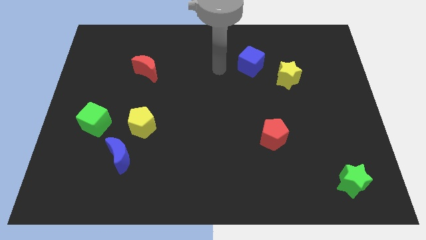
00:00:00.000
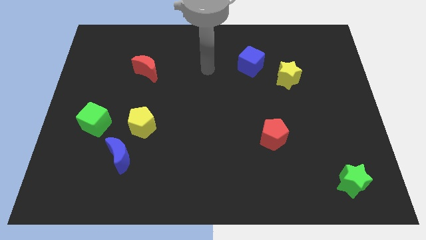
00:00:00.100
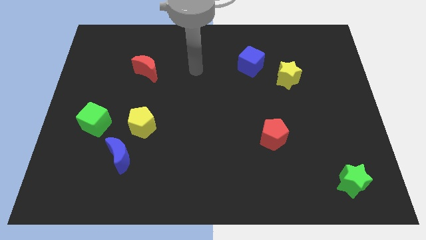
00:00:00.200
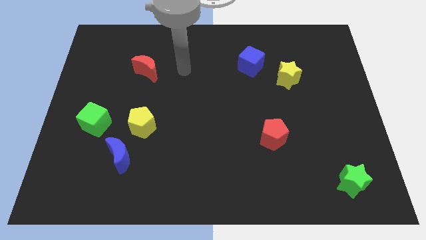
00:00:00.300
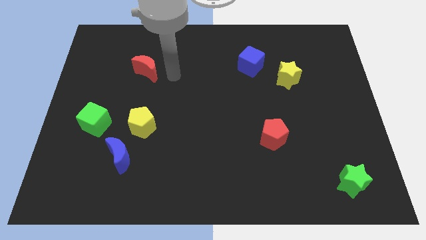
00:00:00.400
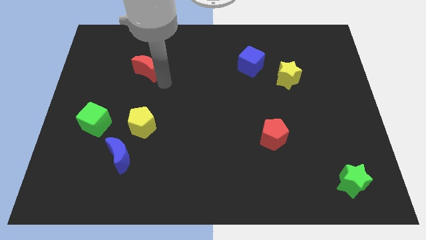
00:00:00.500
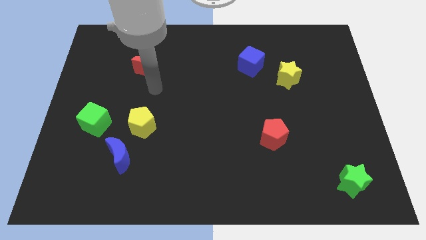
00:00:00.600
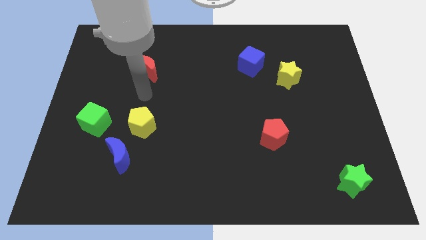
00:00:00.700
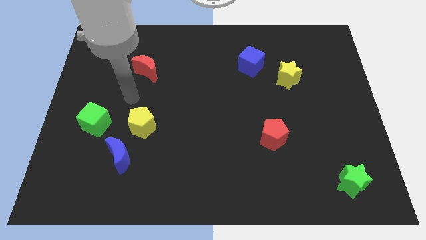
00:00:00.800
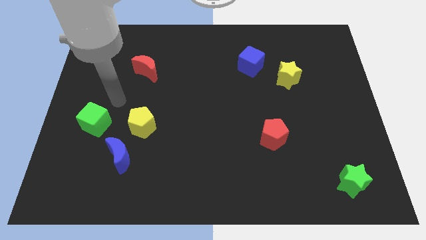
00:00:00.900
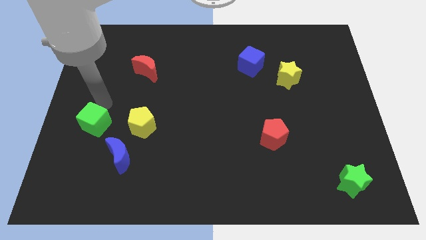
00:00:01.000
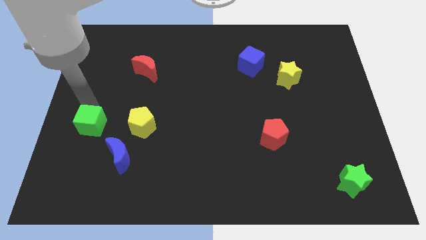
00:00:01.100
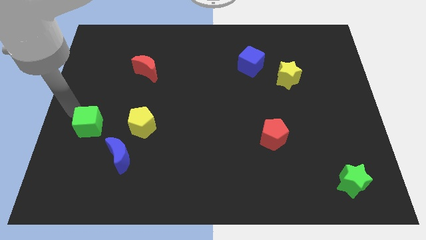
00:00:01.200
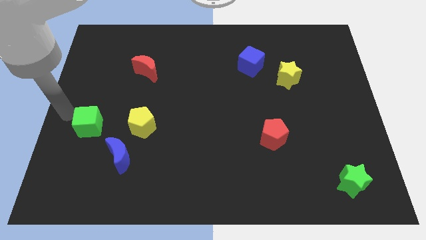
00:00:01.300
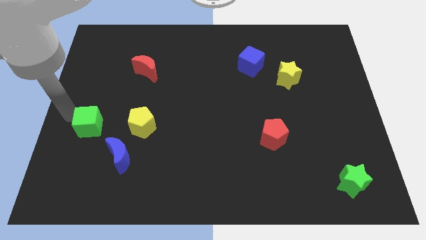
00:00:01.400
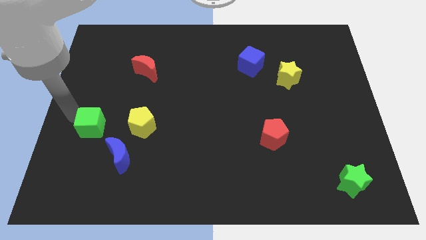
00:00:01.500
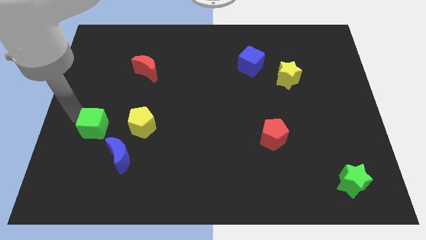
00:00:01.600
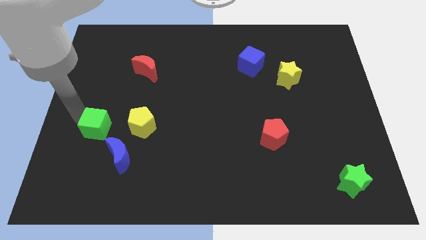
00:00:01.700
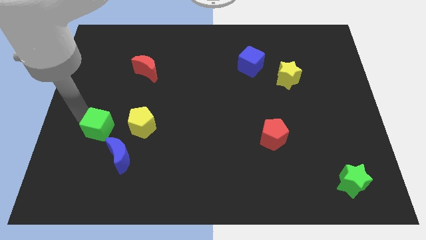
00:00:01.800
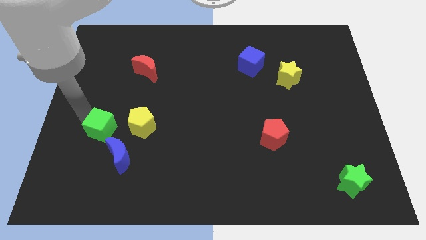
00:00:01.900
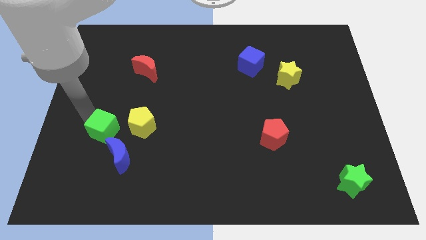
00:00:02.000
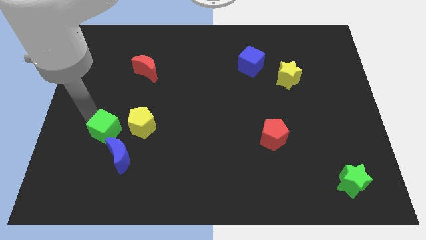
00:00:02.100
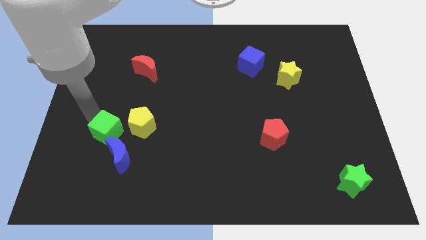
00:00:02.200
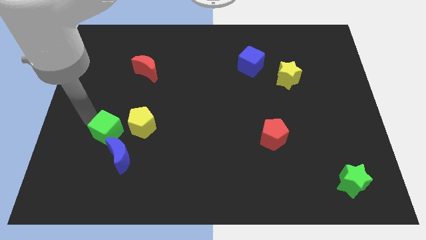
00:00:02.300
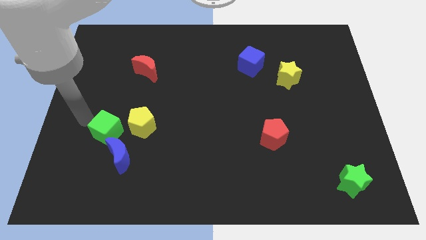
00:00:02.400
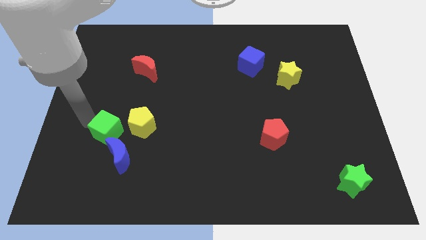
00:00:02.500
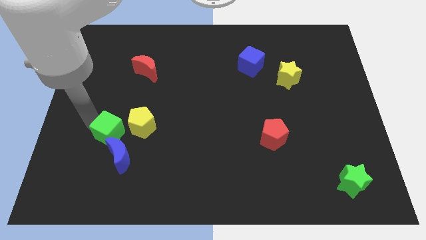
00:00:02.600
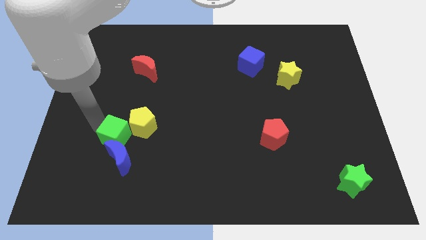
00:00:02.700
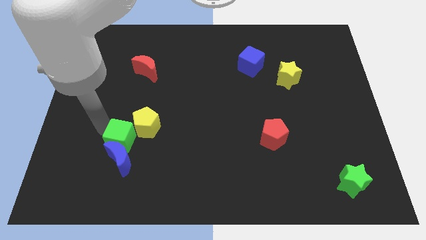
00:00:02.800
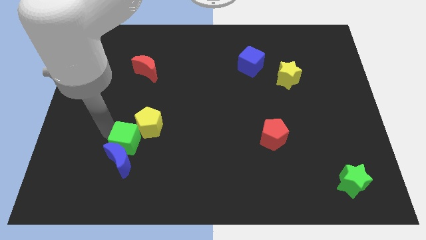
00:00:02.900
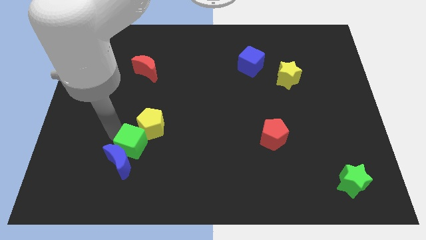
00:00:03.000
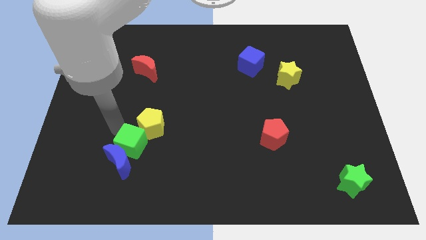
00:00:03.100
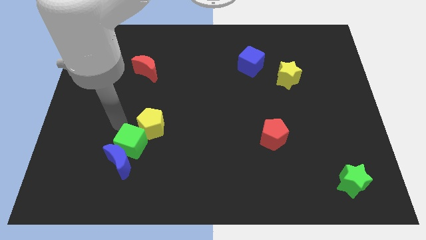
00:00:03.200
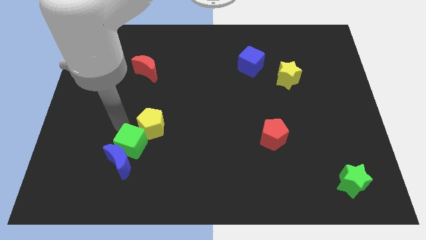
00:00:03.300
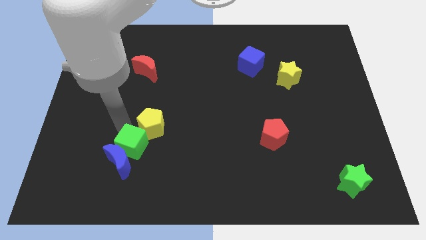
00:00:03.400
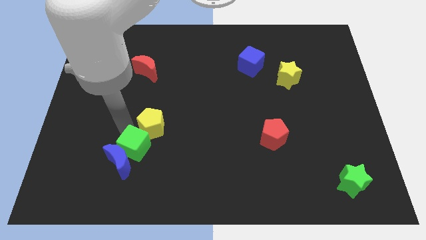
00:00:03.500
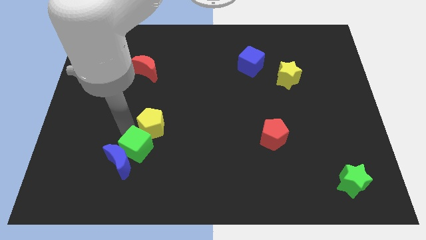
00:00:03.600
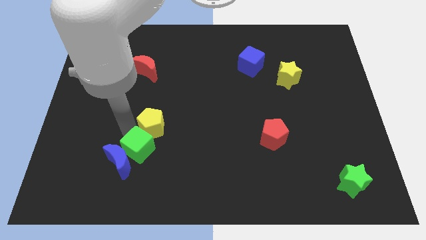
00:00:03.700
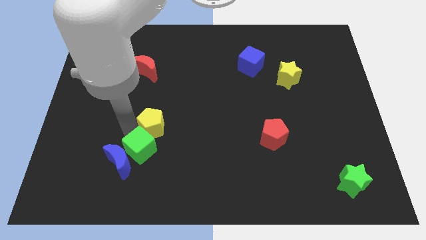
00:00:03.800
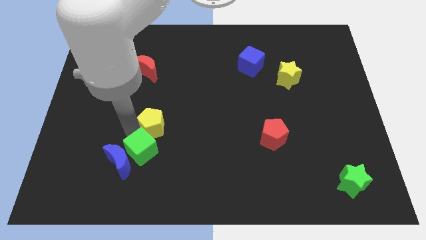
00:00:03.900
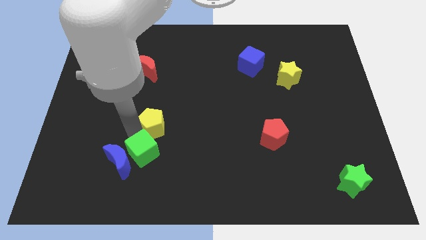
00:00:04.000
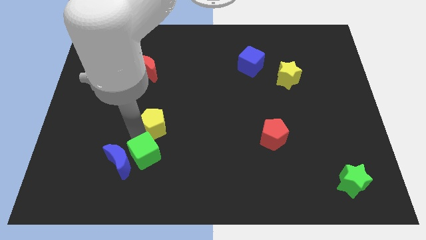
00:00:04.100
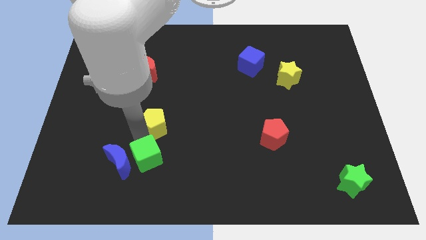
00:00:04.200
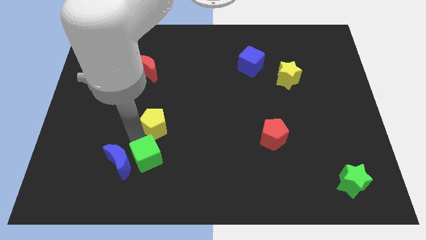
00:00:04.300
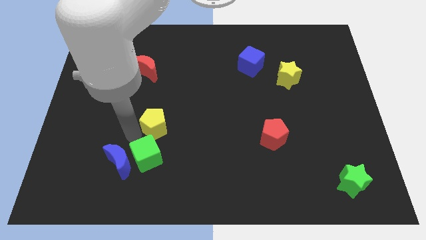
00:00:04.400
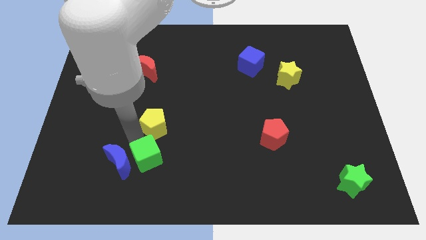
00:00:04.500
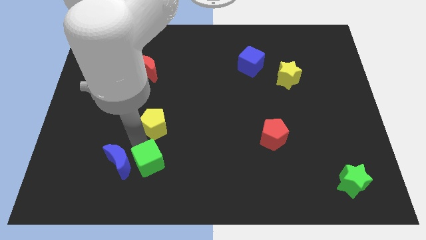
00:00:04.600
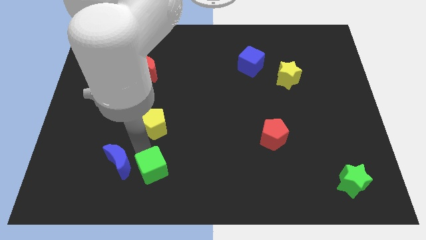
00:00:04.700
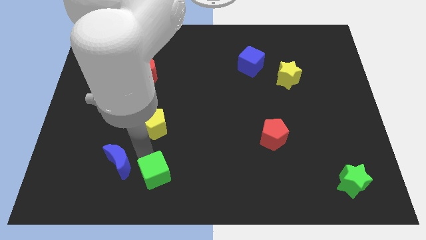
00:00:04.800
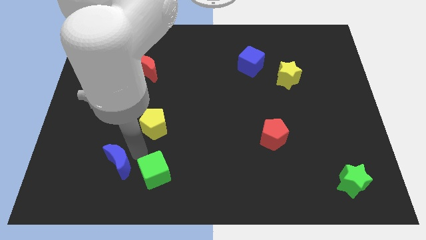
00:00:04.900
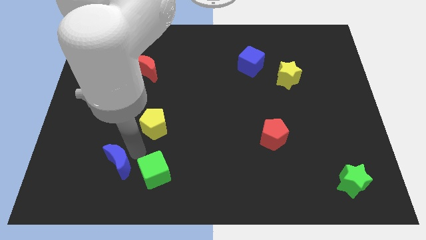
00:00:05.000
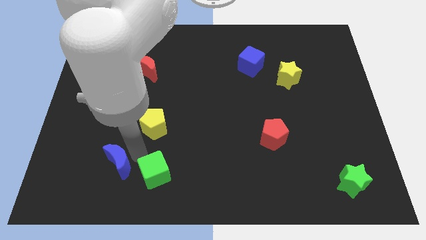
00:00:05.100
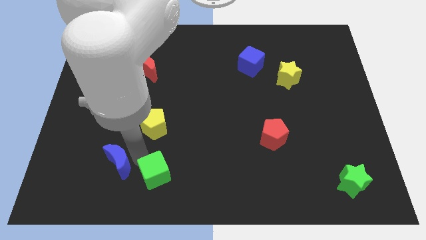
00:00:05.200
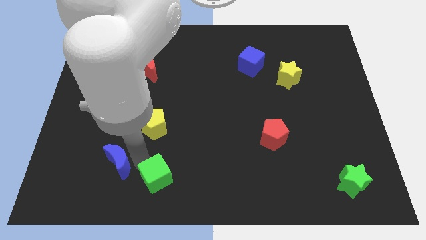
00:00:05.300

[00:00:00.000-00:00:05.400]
move the green cube to the bottom

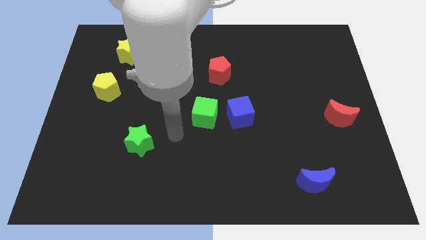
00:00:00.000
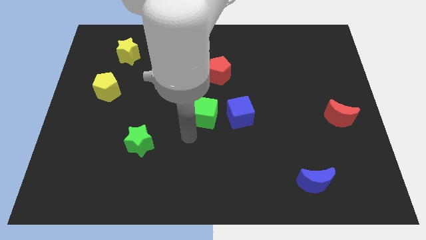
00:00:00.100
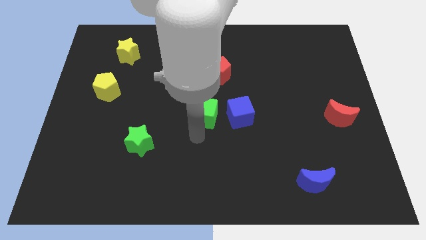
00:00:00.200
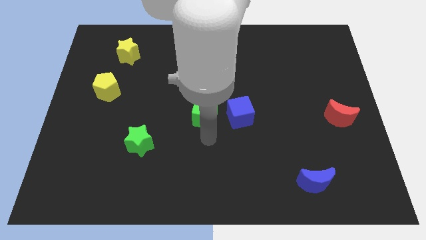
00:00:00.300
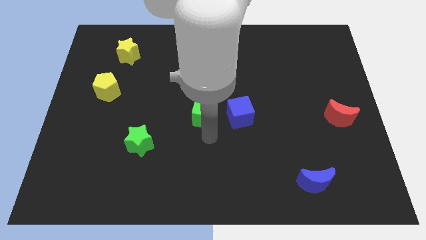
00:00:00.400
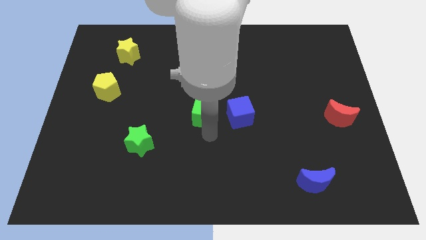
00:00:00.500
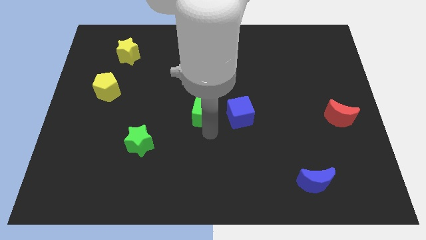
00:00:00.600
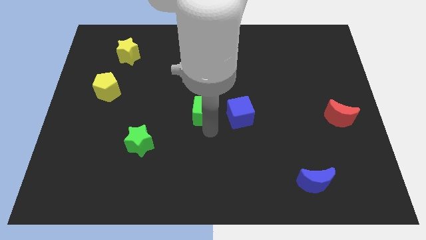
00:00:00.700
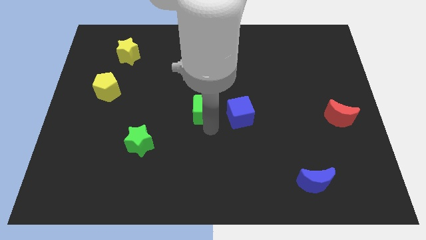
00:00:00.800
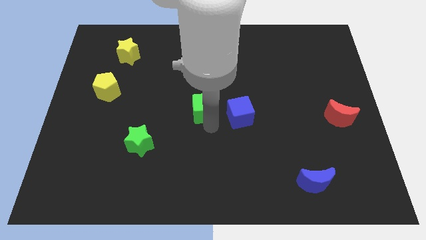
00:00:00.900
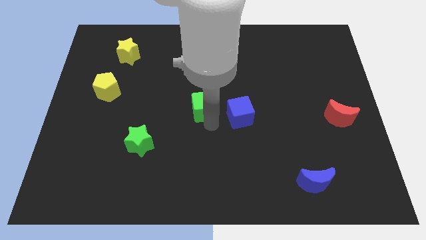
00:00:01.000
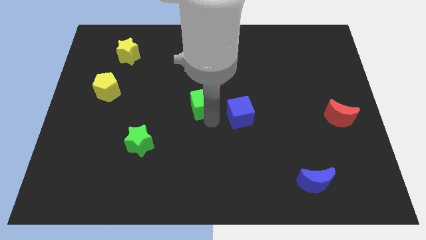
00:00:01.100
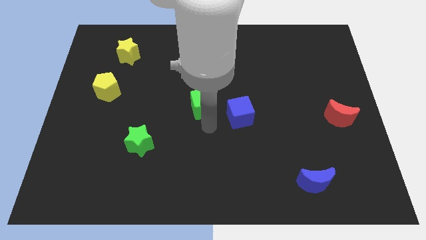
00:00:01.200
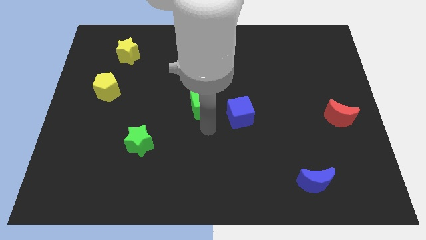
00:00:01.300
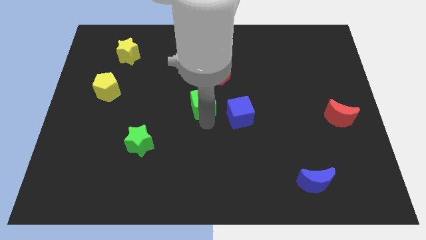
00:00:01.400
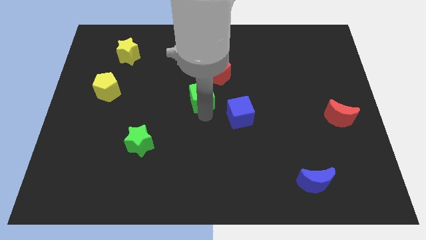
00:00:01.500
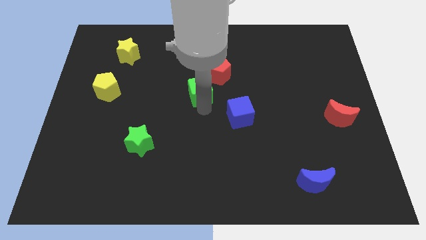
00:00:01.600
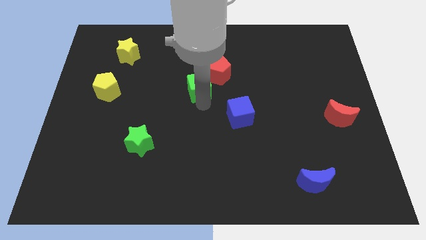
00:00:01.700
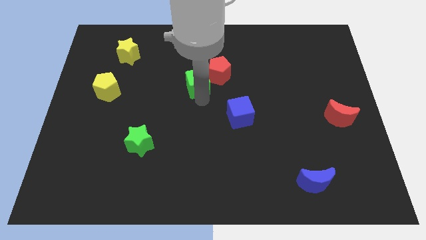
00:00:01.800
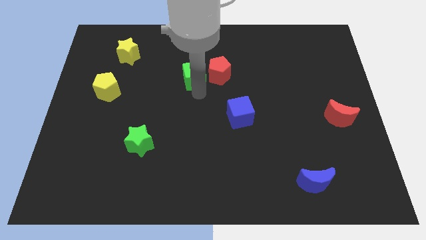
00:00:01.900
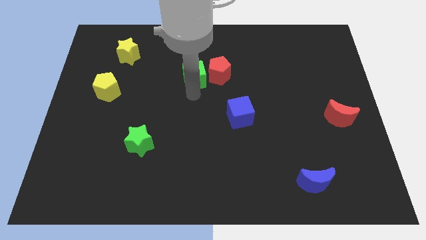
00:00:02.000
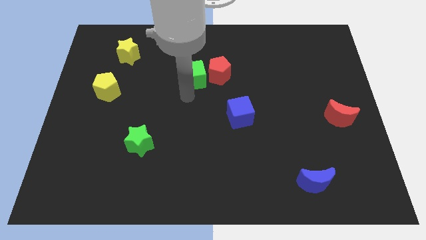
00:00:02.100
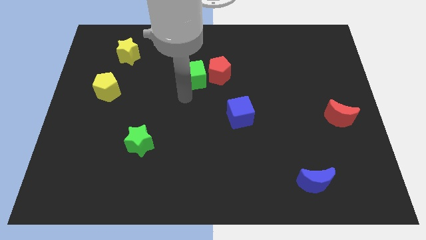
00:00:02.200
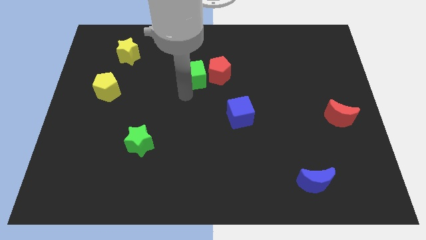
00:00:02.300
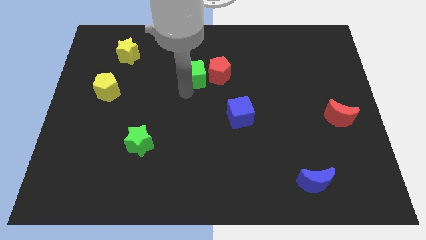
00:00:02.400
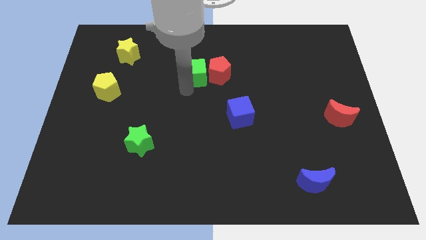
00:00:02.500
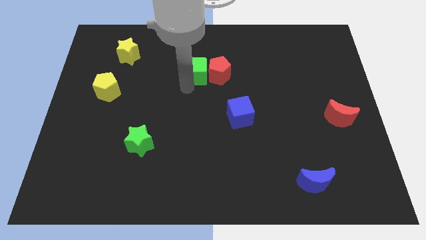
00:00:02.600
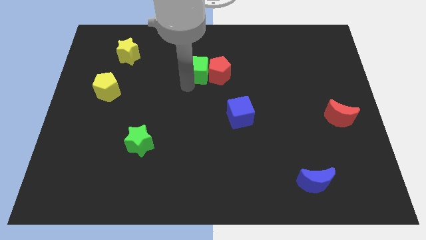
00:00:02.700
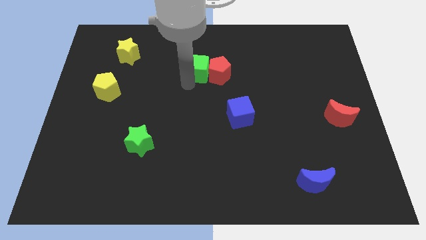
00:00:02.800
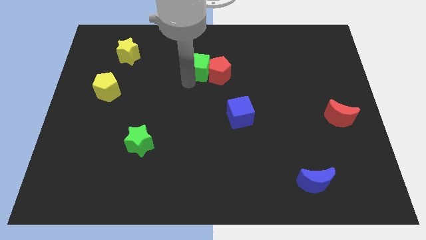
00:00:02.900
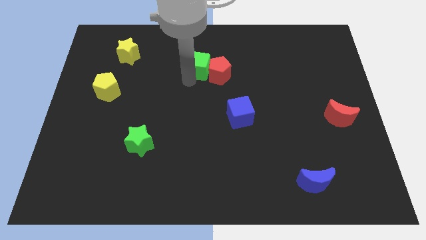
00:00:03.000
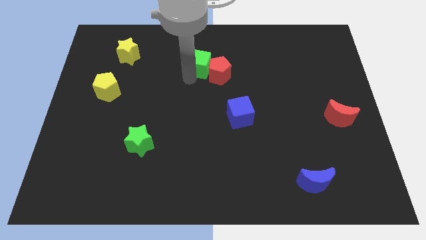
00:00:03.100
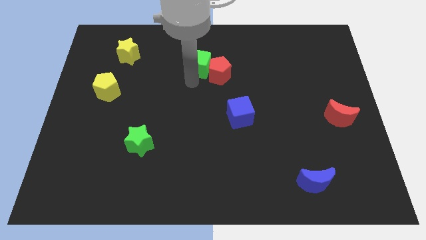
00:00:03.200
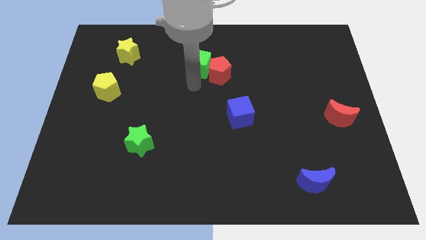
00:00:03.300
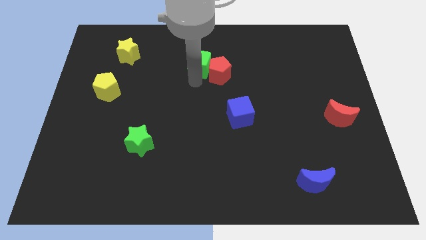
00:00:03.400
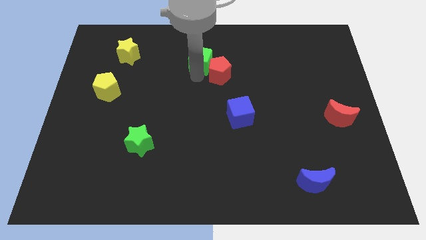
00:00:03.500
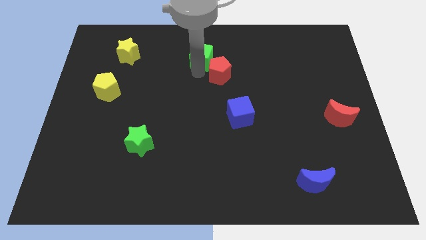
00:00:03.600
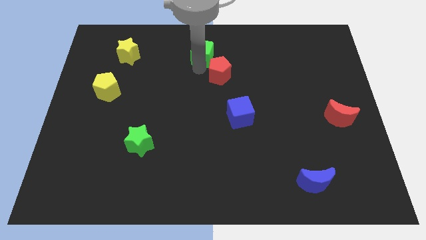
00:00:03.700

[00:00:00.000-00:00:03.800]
push the green cube to the top side
